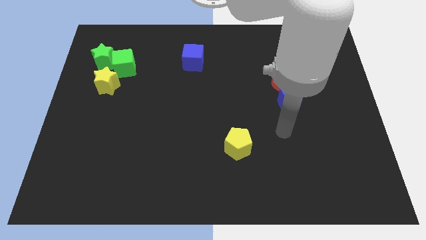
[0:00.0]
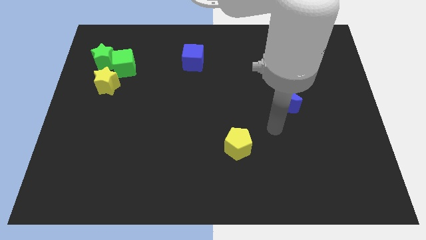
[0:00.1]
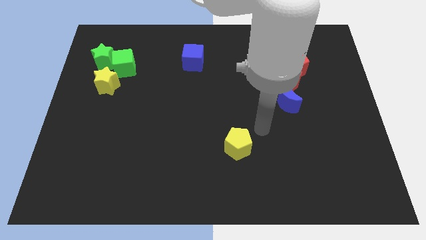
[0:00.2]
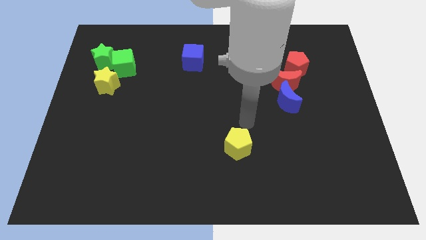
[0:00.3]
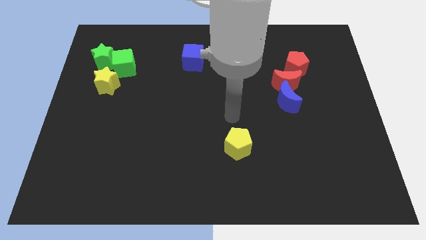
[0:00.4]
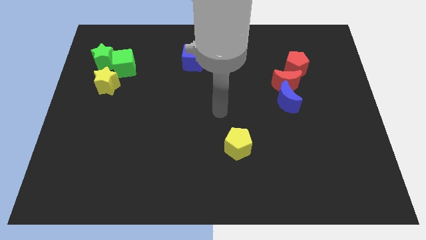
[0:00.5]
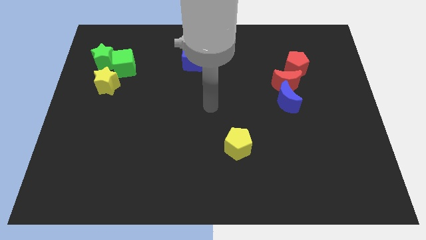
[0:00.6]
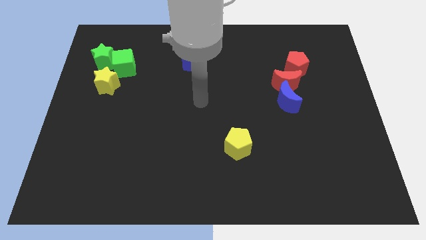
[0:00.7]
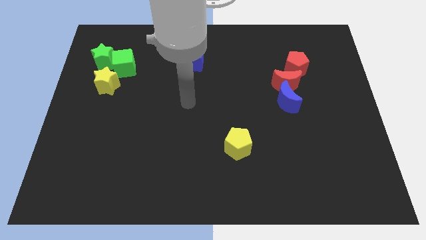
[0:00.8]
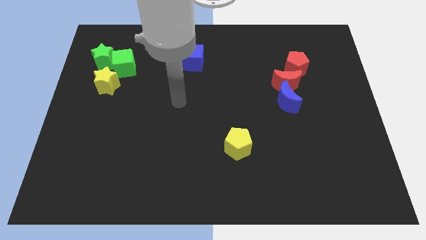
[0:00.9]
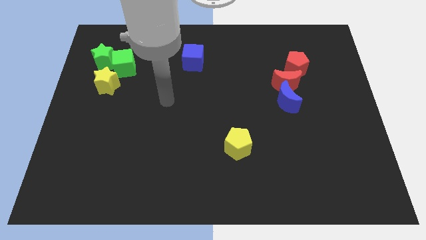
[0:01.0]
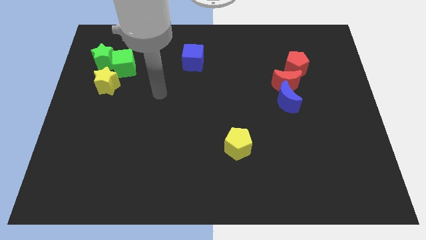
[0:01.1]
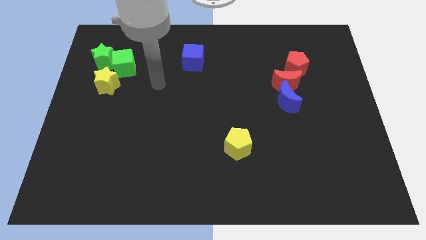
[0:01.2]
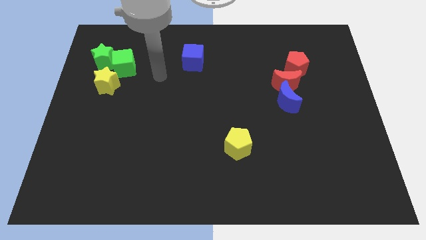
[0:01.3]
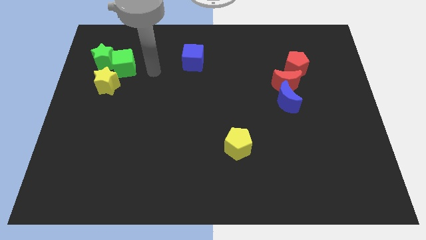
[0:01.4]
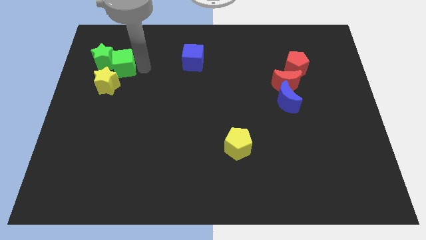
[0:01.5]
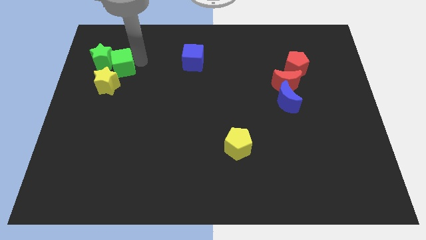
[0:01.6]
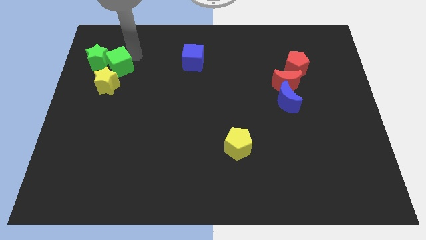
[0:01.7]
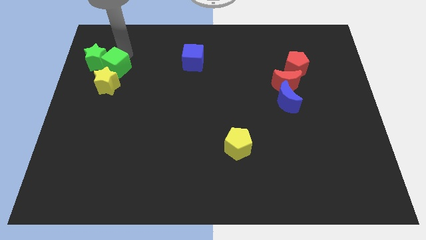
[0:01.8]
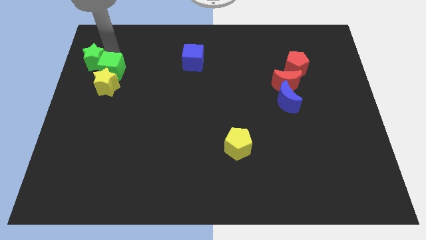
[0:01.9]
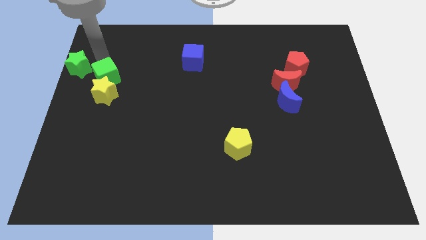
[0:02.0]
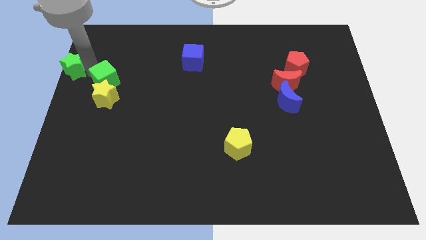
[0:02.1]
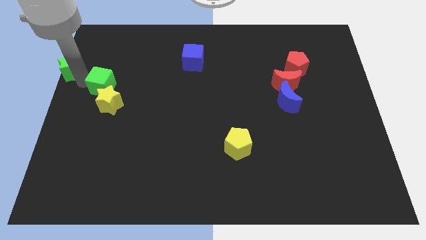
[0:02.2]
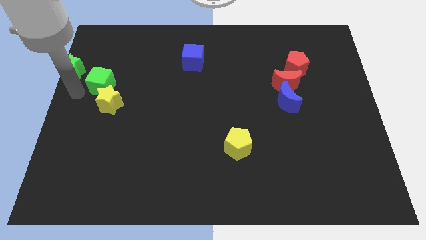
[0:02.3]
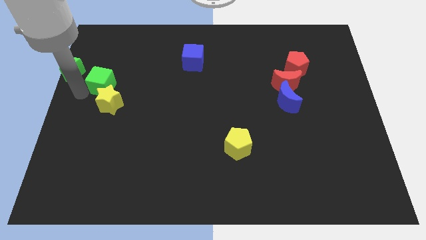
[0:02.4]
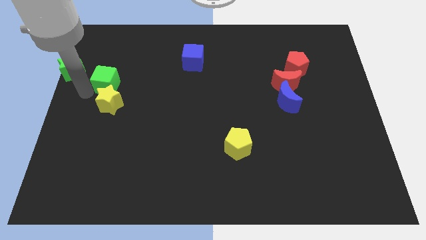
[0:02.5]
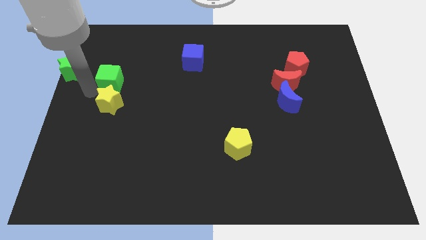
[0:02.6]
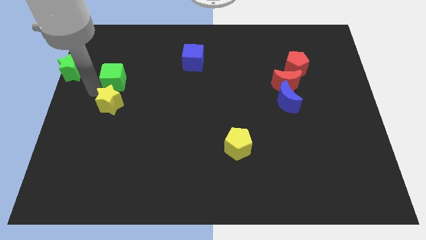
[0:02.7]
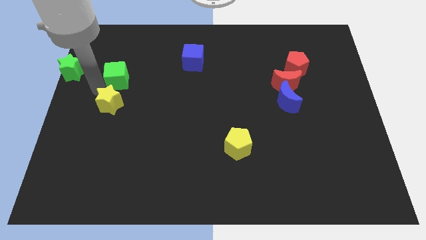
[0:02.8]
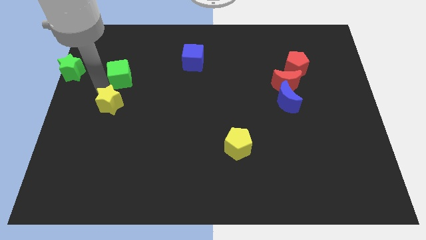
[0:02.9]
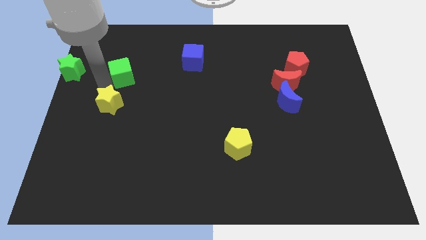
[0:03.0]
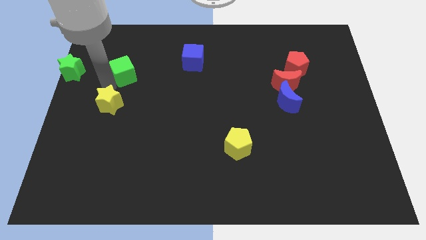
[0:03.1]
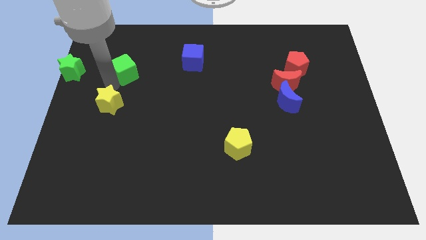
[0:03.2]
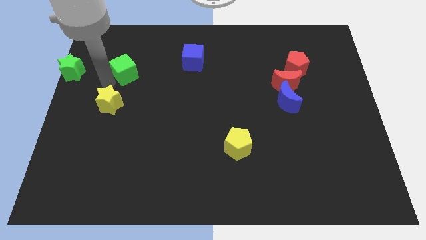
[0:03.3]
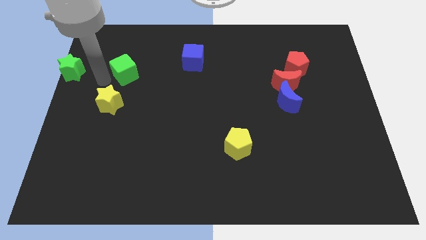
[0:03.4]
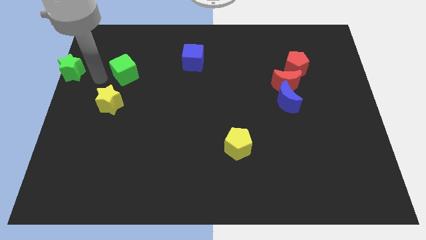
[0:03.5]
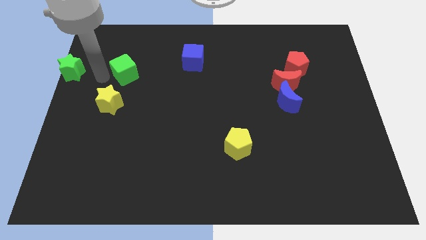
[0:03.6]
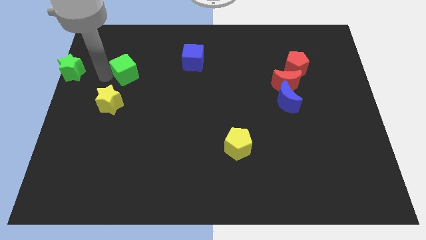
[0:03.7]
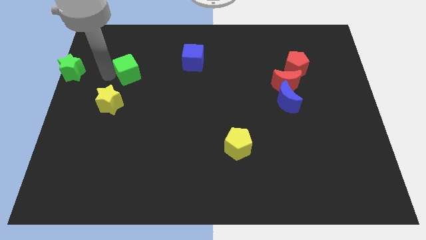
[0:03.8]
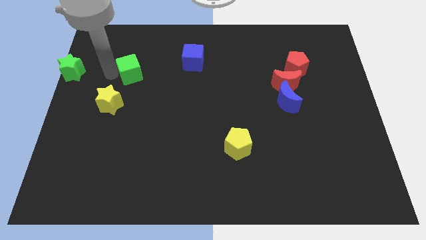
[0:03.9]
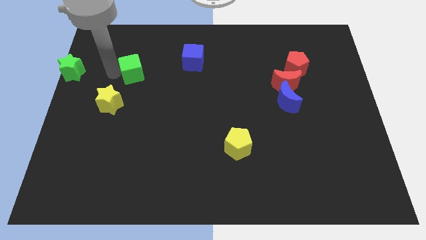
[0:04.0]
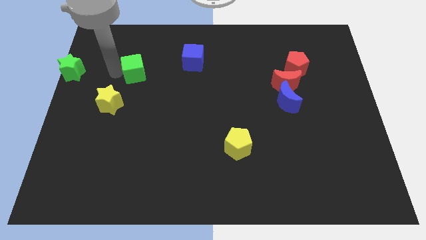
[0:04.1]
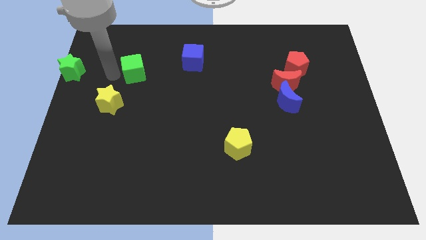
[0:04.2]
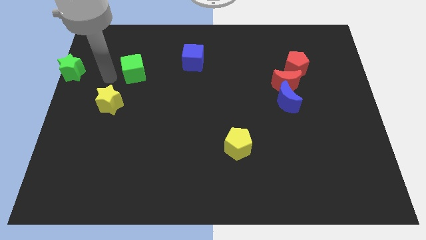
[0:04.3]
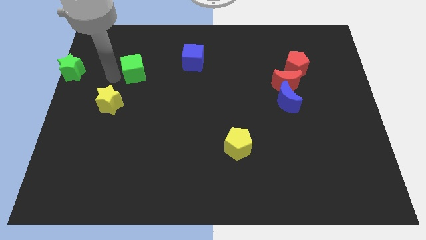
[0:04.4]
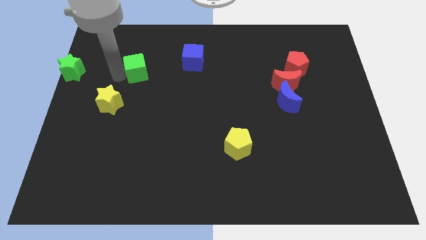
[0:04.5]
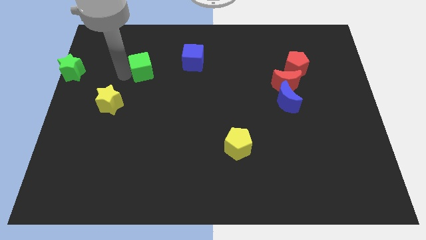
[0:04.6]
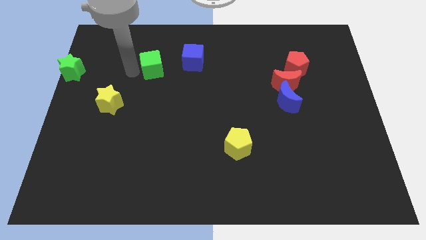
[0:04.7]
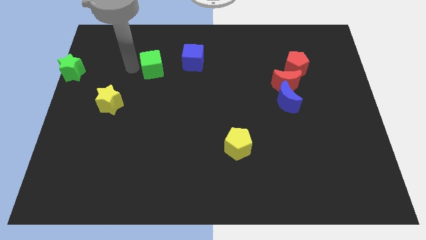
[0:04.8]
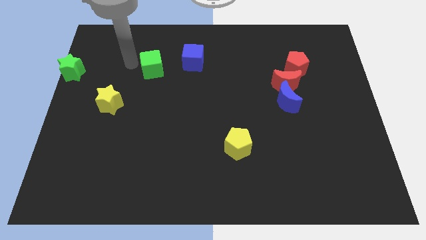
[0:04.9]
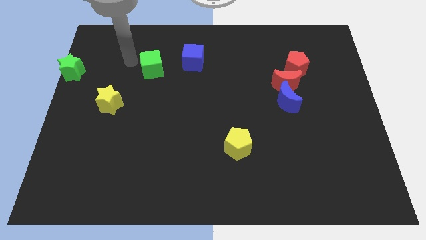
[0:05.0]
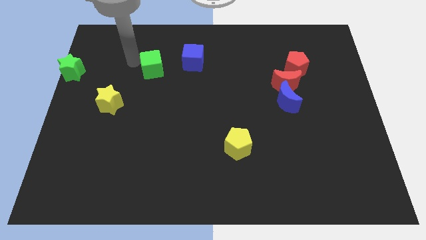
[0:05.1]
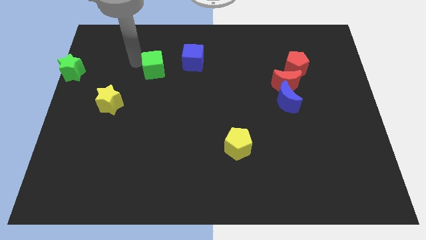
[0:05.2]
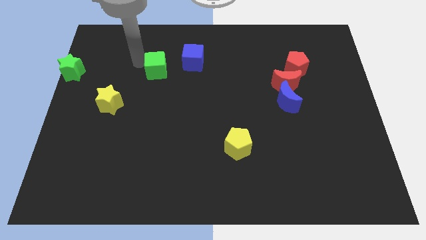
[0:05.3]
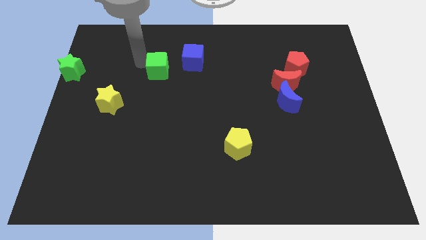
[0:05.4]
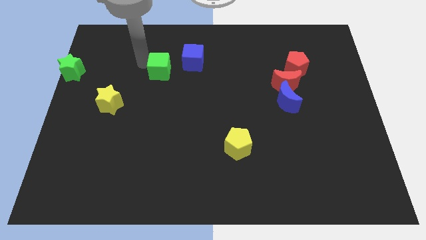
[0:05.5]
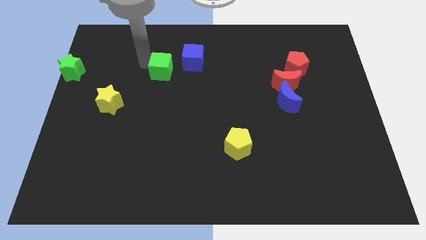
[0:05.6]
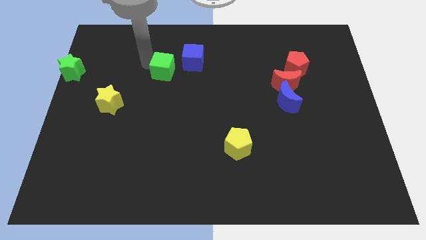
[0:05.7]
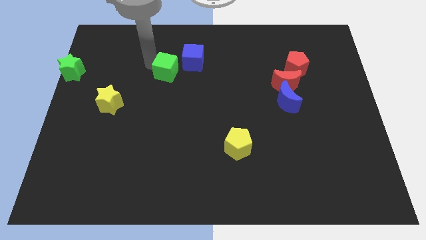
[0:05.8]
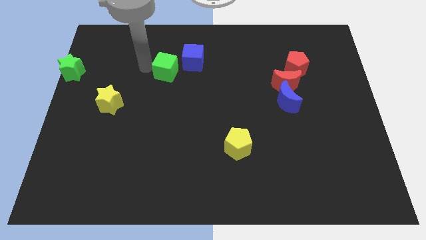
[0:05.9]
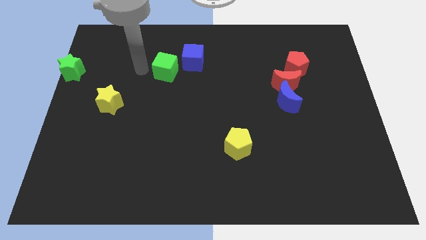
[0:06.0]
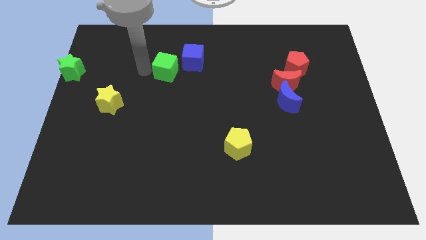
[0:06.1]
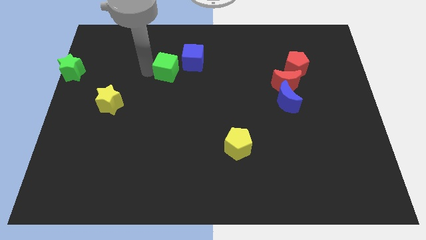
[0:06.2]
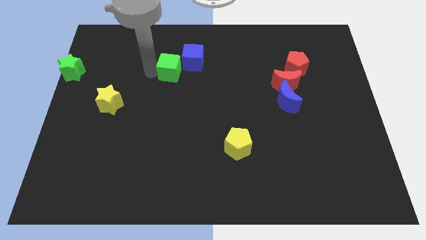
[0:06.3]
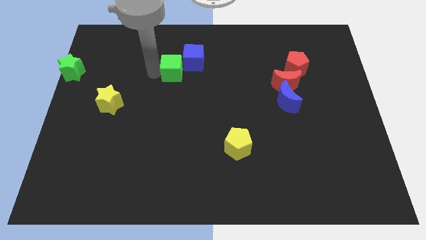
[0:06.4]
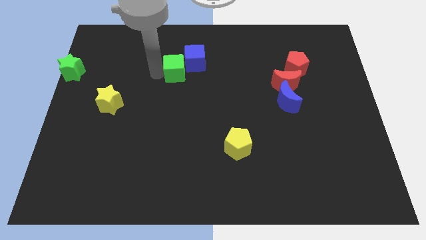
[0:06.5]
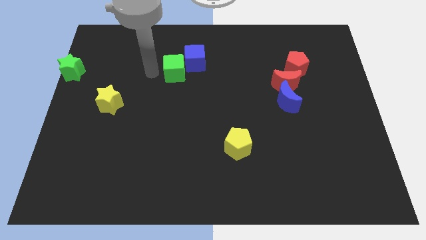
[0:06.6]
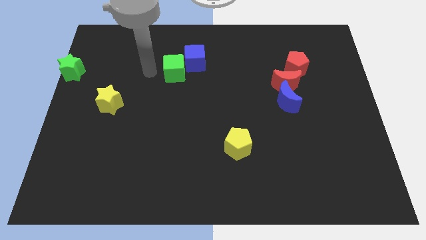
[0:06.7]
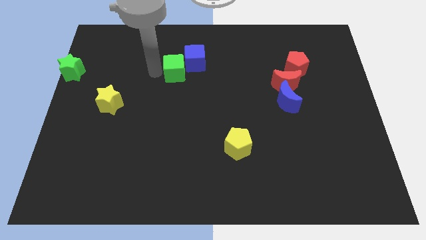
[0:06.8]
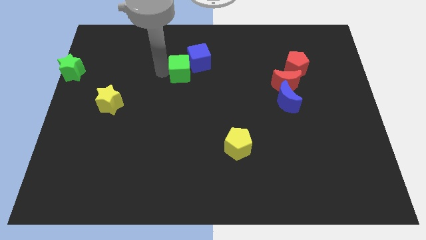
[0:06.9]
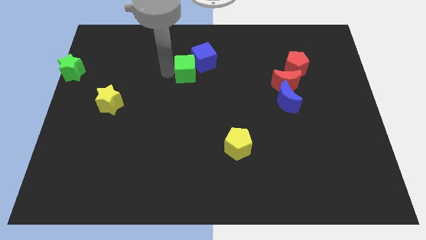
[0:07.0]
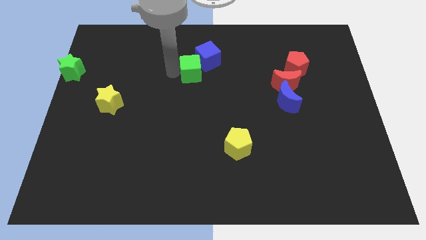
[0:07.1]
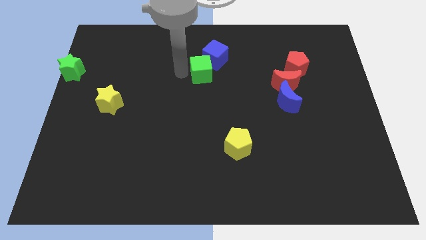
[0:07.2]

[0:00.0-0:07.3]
move the green cube right
